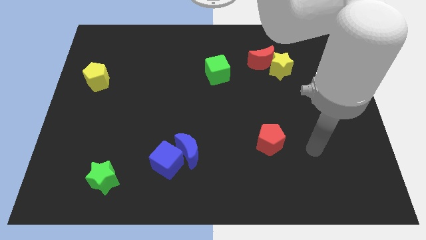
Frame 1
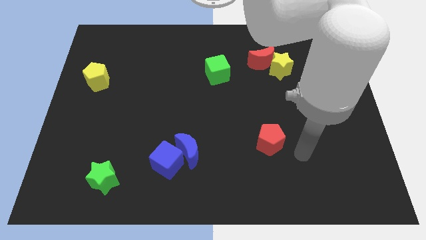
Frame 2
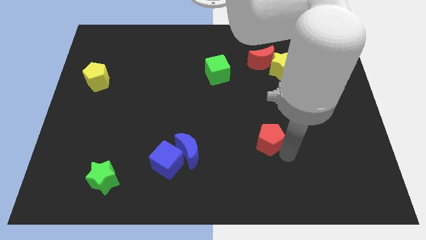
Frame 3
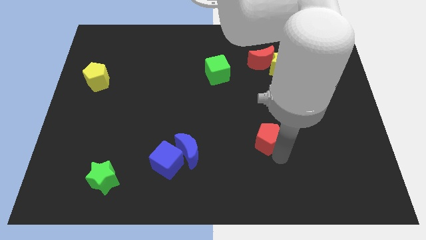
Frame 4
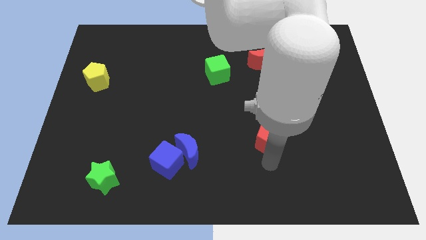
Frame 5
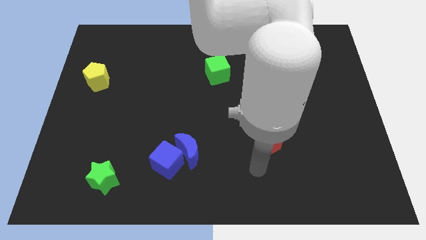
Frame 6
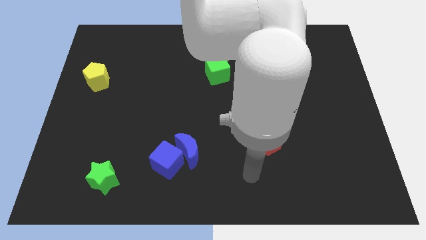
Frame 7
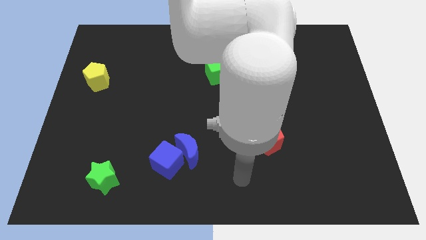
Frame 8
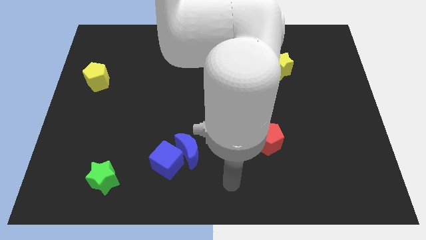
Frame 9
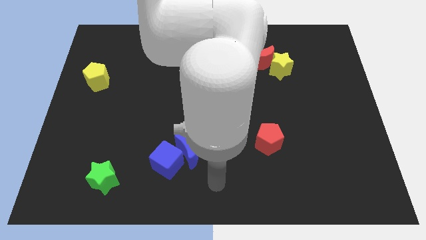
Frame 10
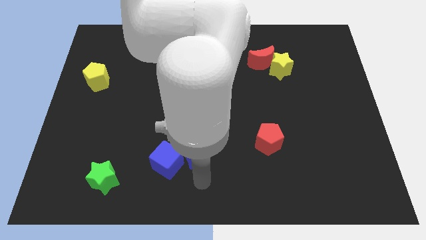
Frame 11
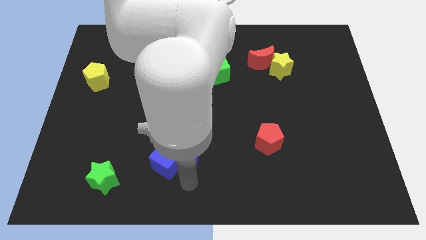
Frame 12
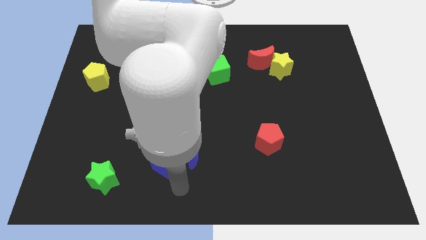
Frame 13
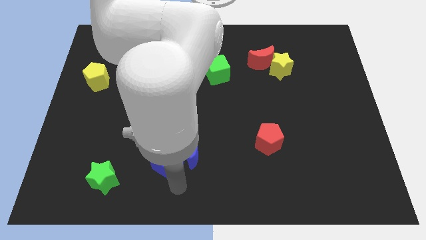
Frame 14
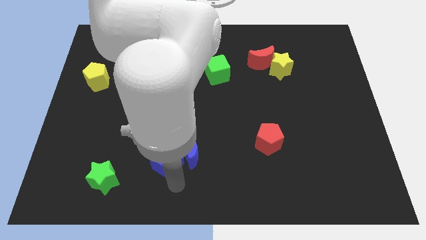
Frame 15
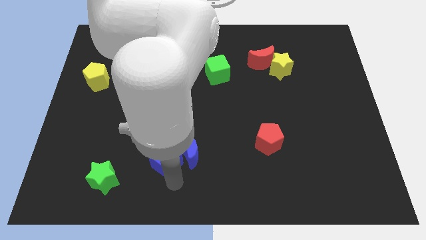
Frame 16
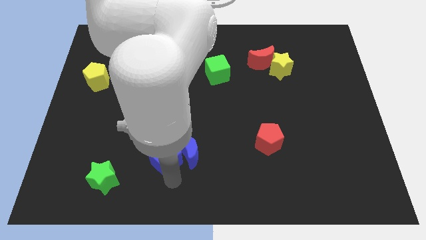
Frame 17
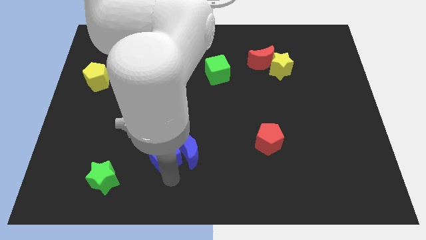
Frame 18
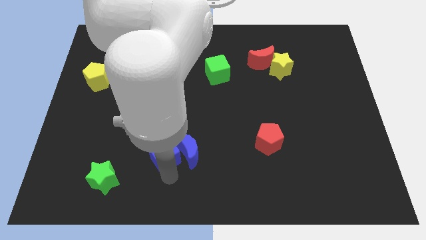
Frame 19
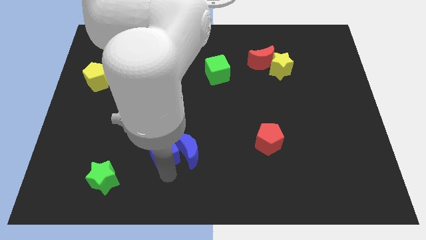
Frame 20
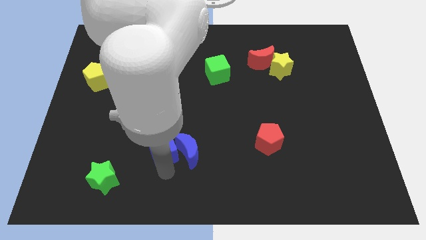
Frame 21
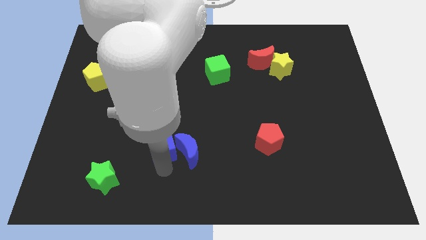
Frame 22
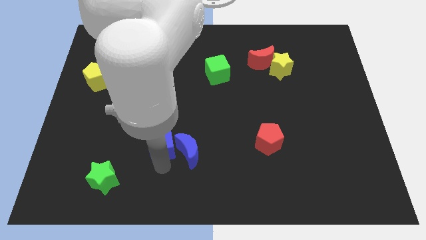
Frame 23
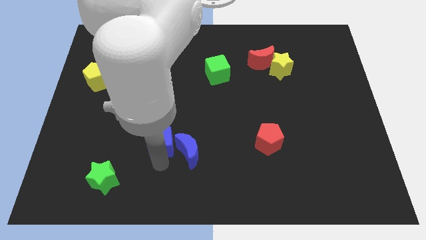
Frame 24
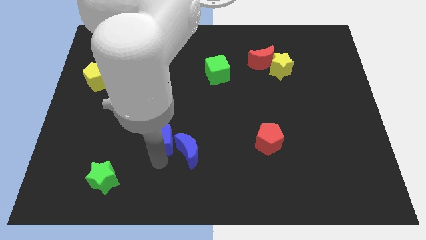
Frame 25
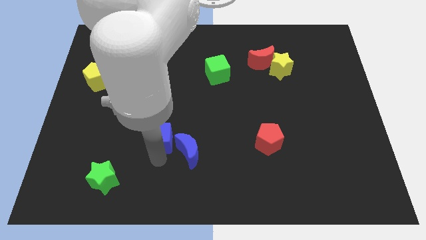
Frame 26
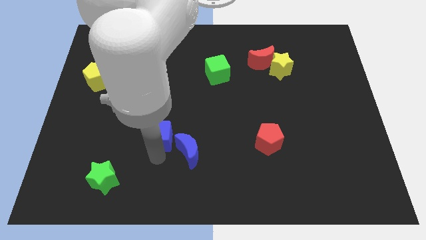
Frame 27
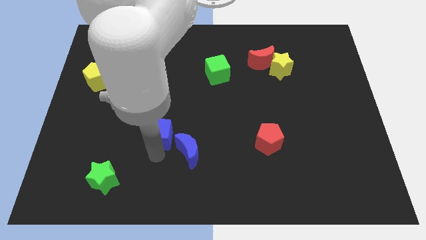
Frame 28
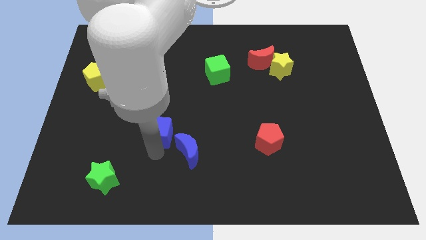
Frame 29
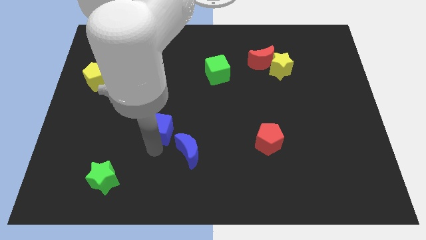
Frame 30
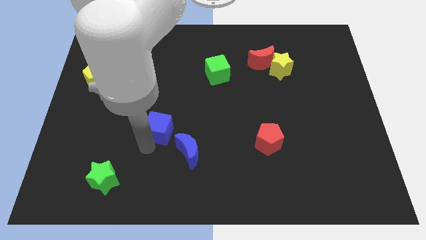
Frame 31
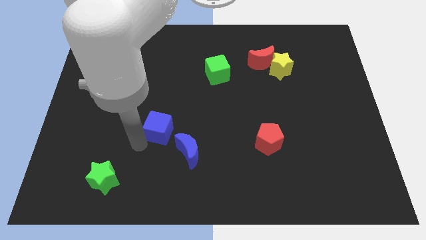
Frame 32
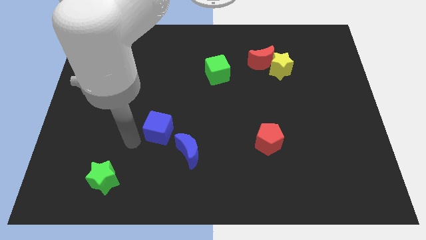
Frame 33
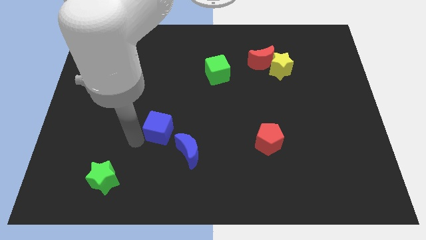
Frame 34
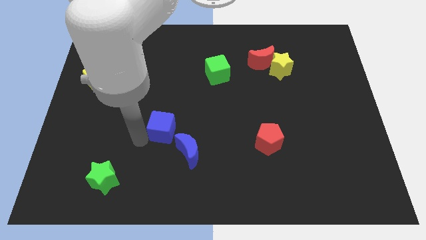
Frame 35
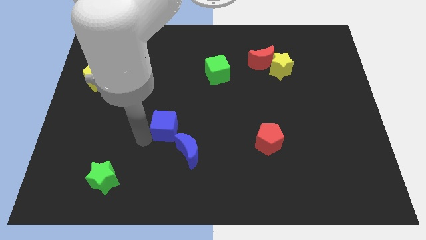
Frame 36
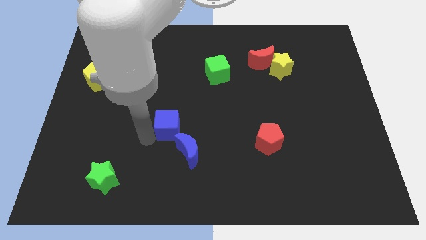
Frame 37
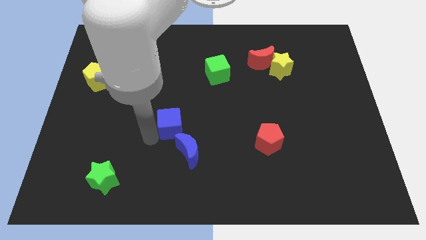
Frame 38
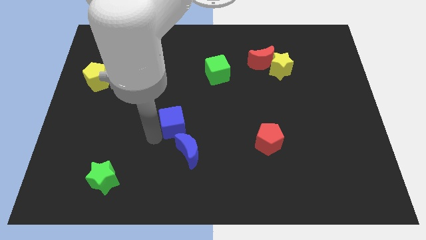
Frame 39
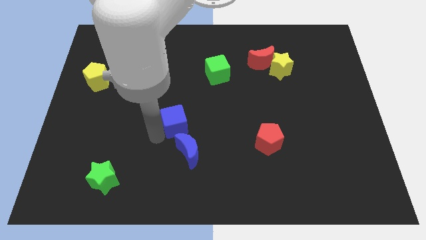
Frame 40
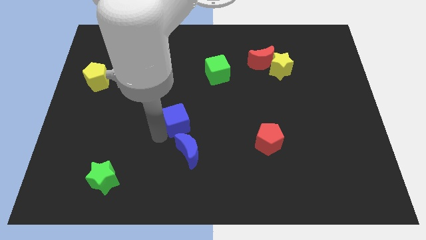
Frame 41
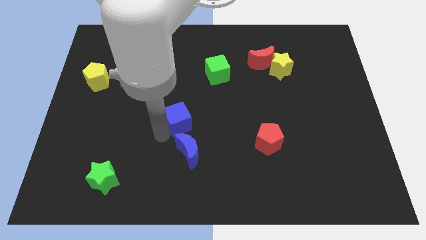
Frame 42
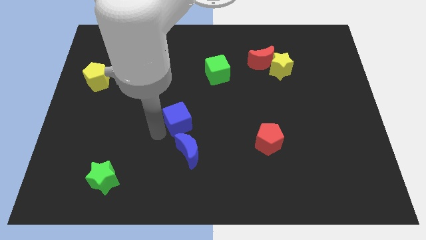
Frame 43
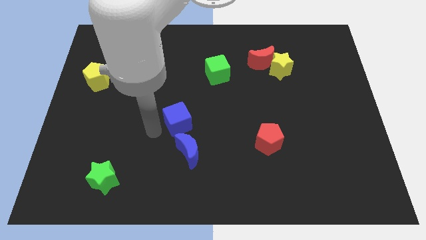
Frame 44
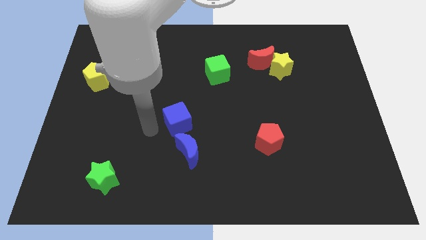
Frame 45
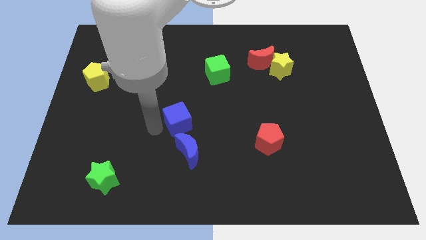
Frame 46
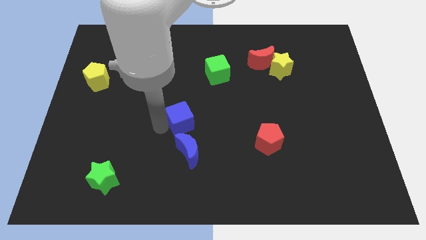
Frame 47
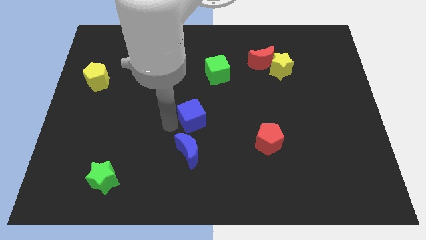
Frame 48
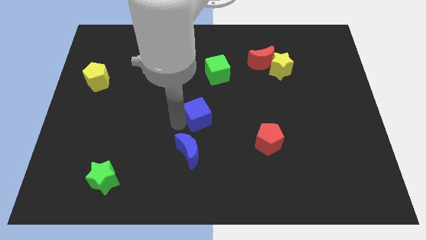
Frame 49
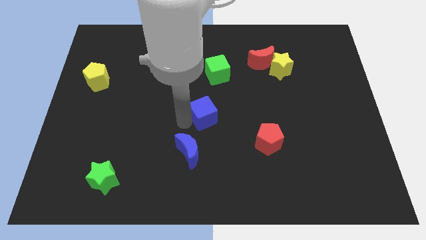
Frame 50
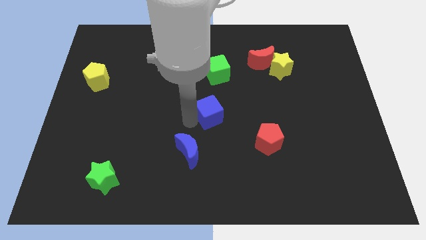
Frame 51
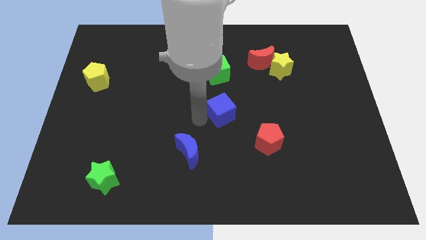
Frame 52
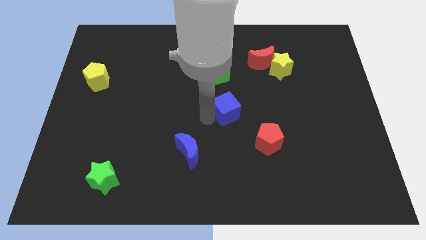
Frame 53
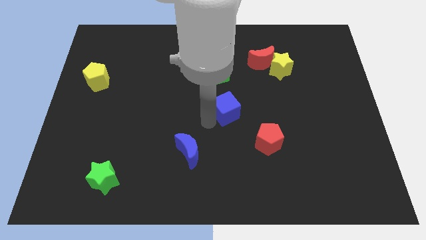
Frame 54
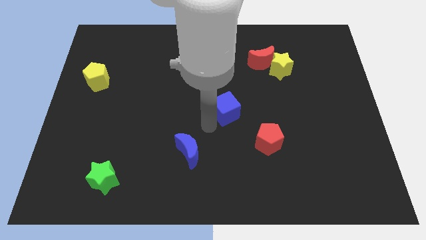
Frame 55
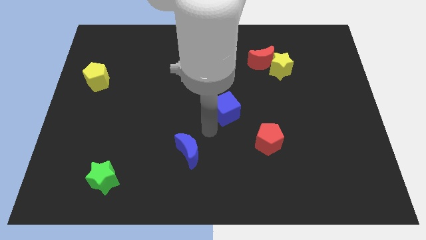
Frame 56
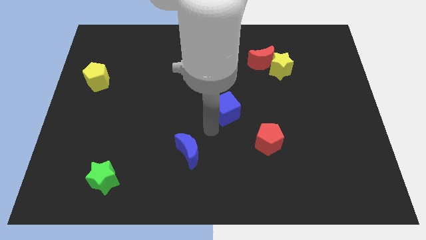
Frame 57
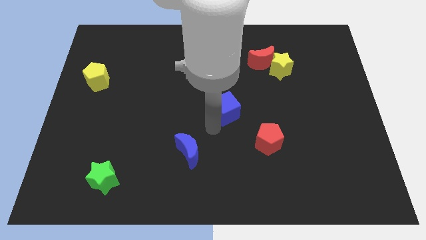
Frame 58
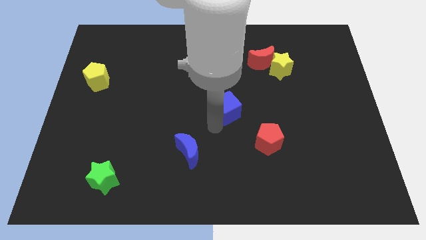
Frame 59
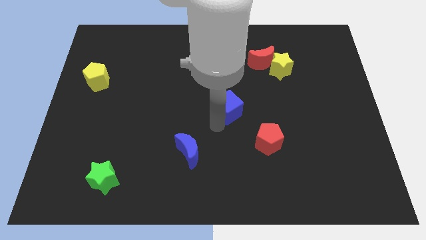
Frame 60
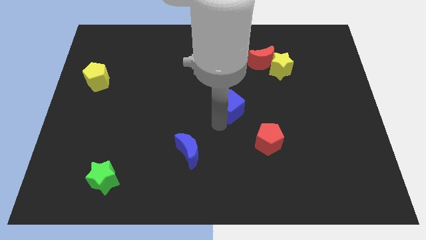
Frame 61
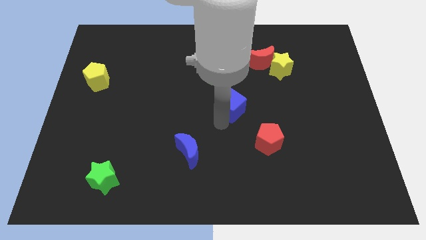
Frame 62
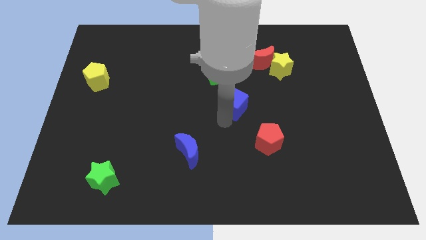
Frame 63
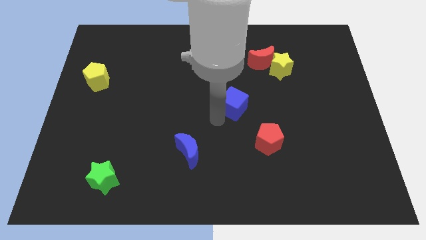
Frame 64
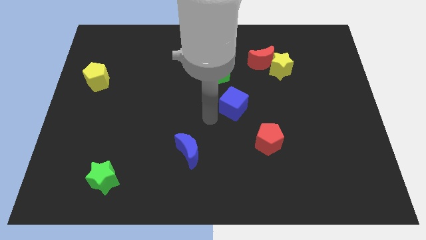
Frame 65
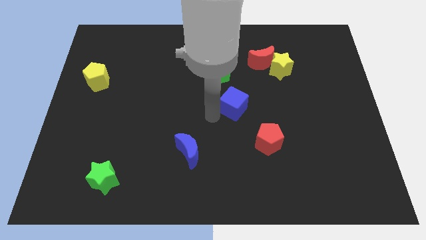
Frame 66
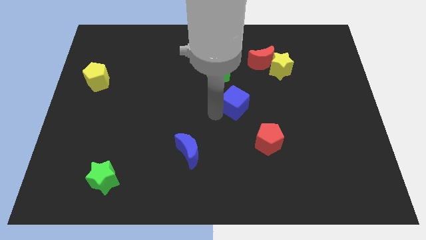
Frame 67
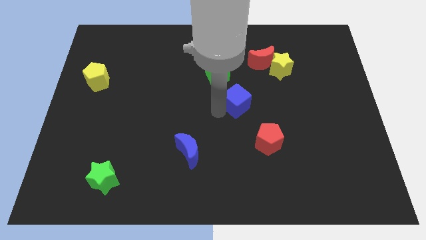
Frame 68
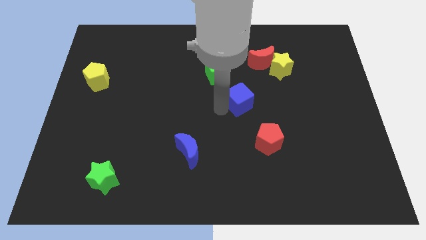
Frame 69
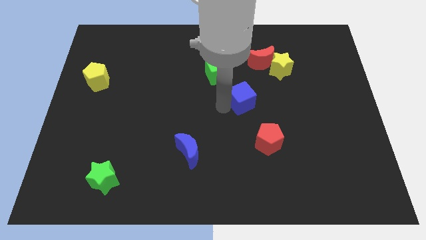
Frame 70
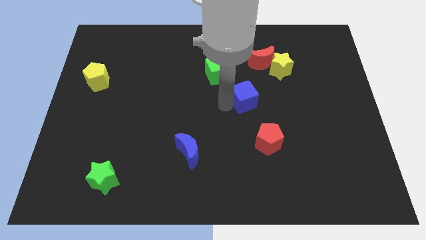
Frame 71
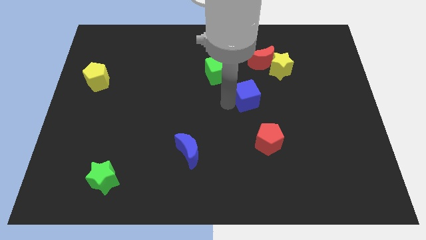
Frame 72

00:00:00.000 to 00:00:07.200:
push the blue cube to the bottom of the red moon

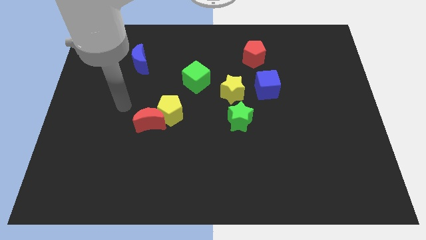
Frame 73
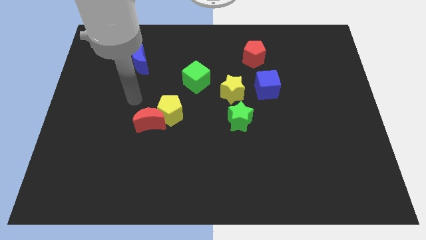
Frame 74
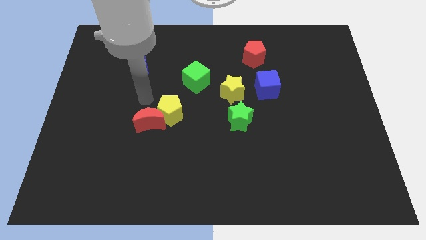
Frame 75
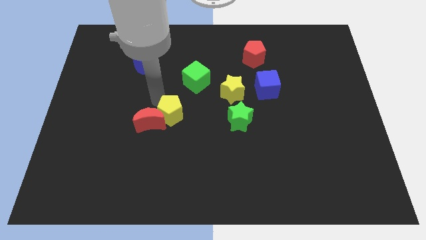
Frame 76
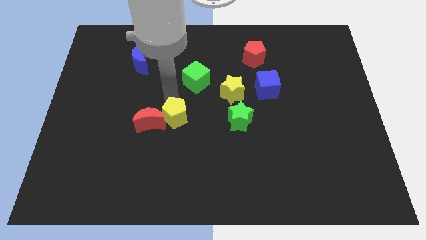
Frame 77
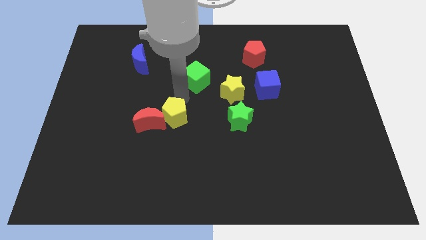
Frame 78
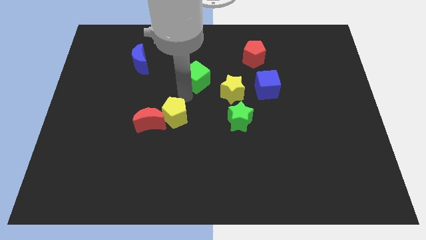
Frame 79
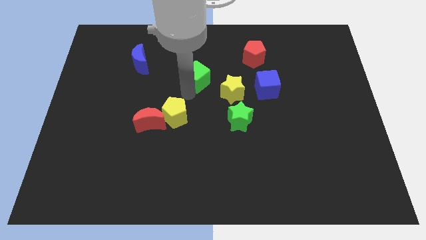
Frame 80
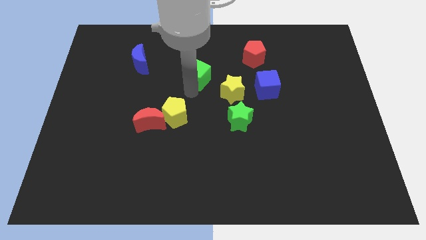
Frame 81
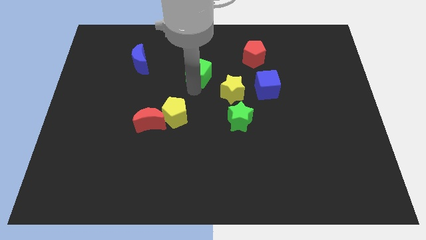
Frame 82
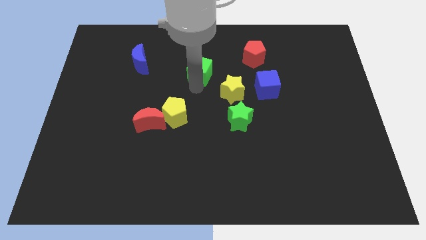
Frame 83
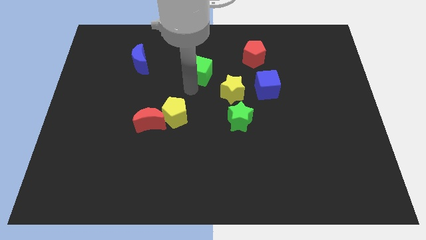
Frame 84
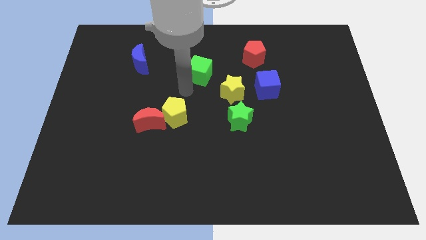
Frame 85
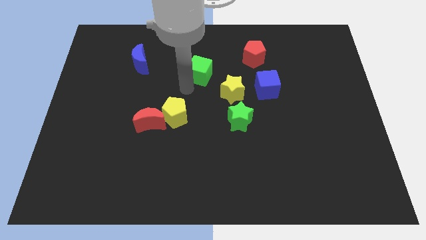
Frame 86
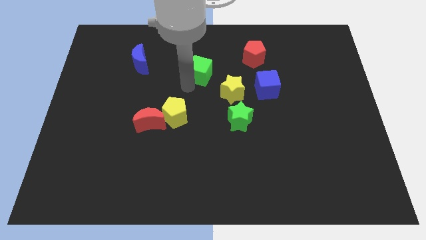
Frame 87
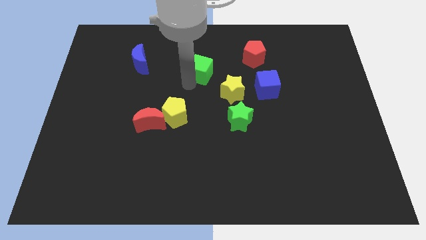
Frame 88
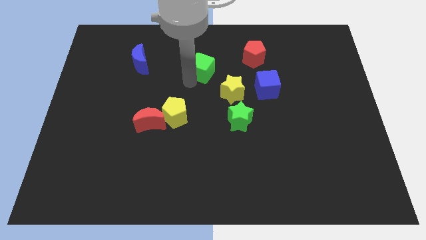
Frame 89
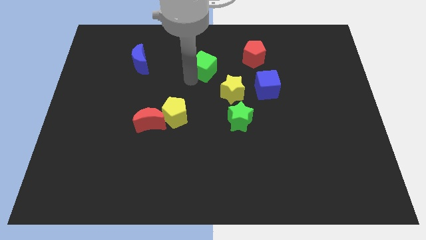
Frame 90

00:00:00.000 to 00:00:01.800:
slide the green cube left of the red pentagon
